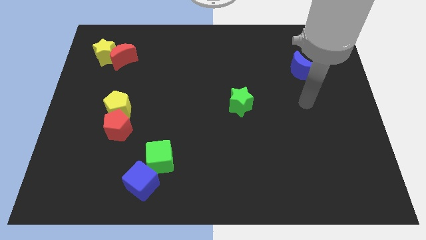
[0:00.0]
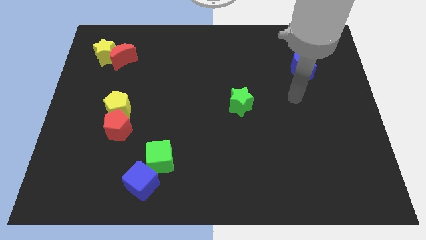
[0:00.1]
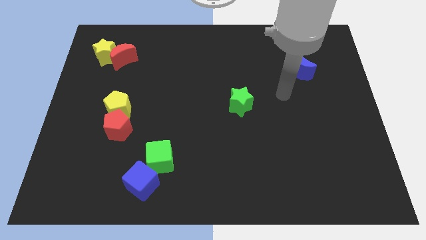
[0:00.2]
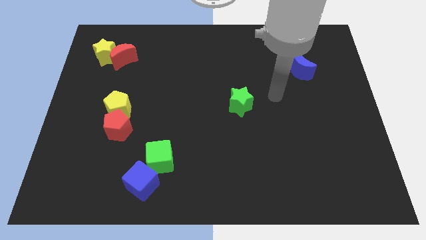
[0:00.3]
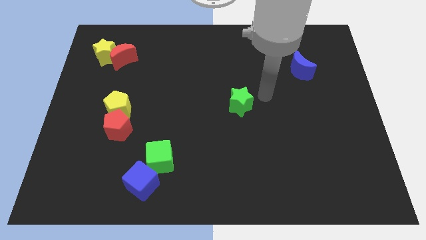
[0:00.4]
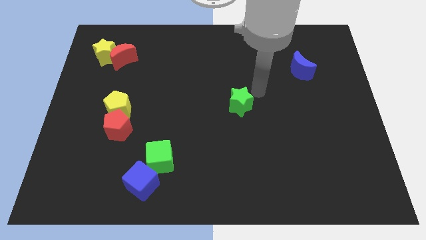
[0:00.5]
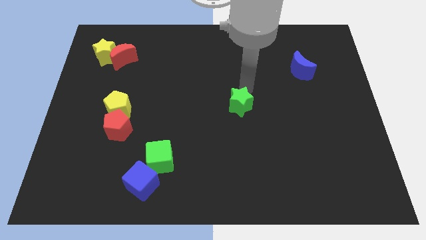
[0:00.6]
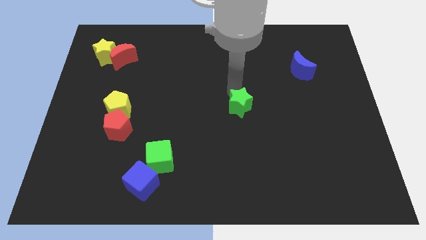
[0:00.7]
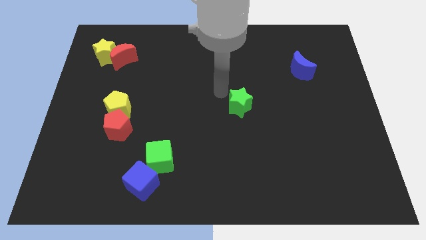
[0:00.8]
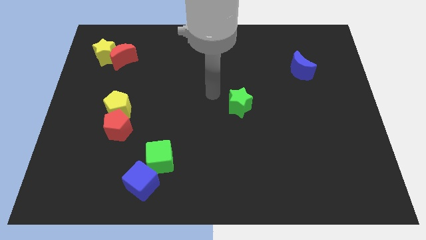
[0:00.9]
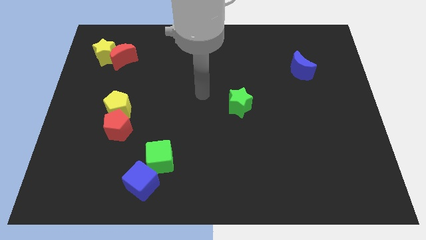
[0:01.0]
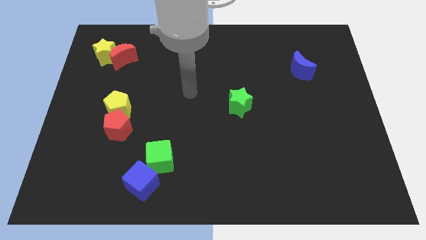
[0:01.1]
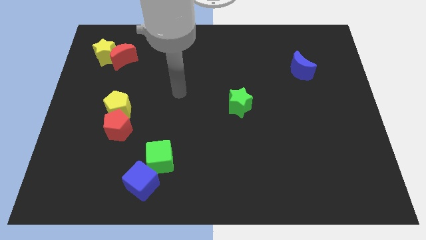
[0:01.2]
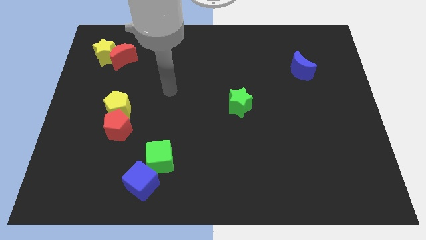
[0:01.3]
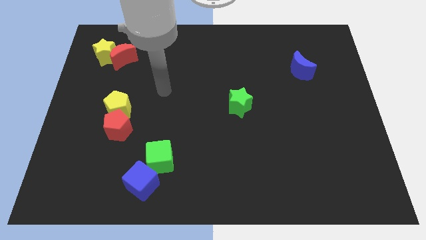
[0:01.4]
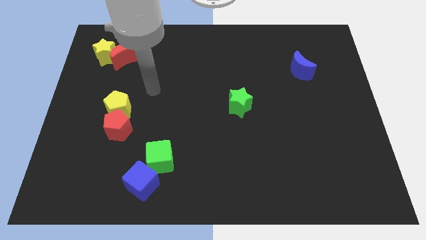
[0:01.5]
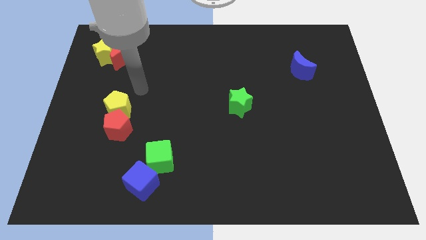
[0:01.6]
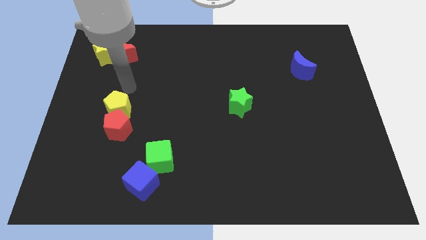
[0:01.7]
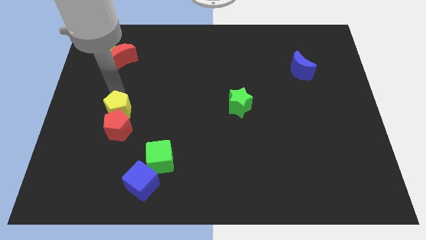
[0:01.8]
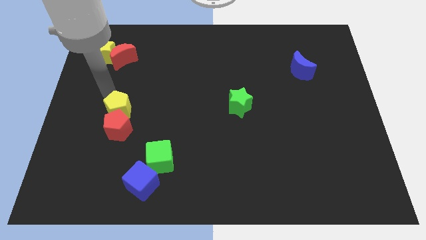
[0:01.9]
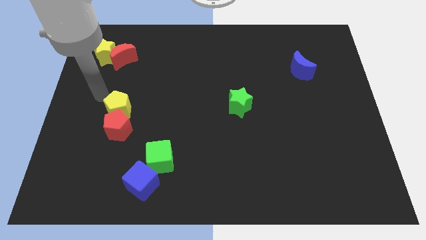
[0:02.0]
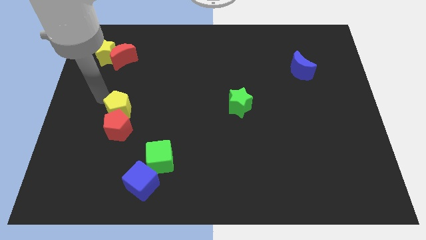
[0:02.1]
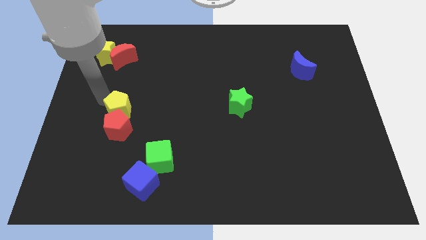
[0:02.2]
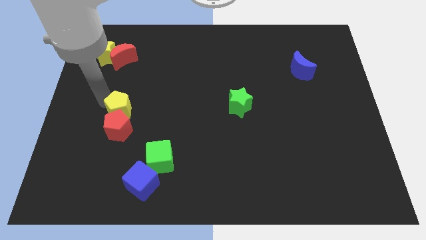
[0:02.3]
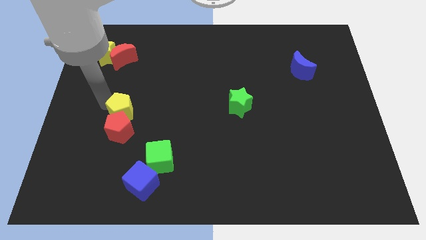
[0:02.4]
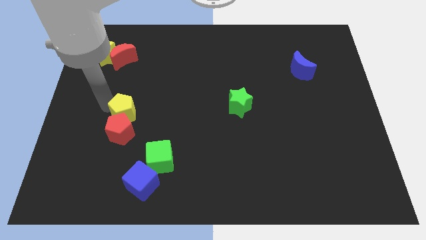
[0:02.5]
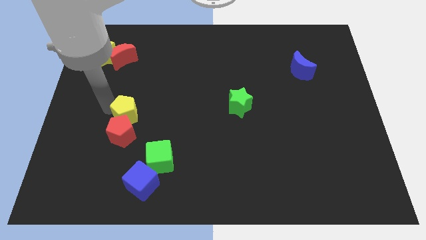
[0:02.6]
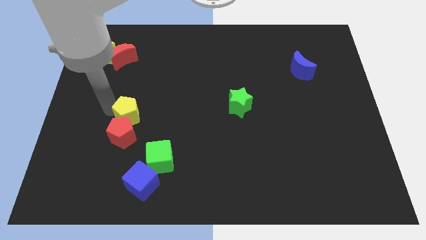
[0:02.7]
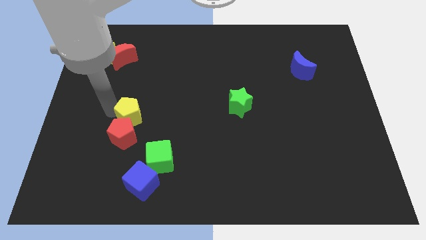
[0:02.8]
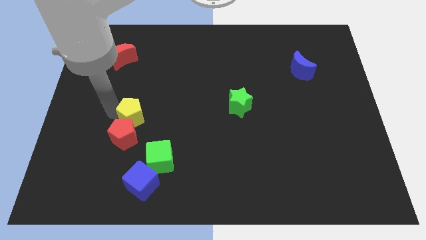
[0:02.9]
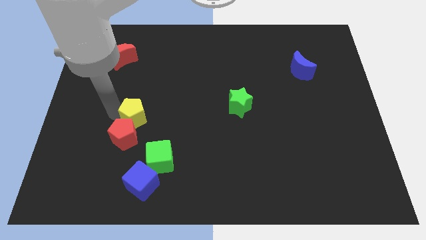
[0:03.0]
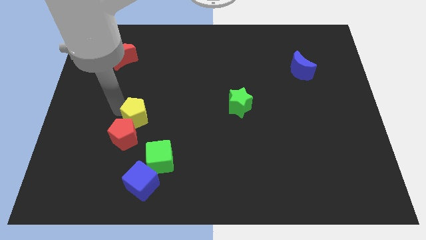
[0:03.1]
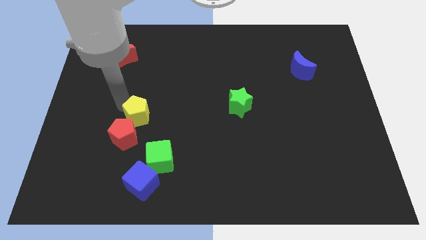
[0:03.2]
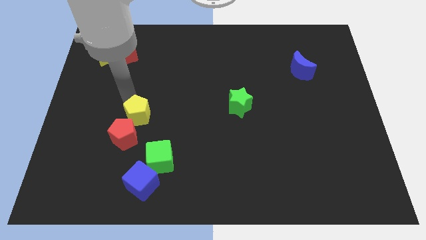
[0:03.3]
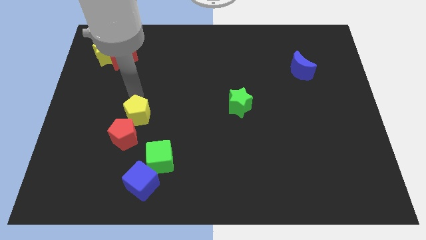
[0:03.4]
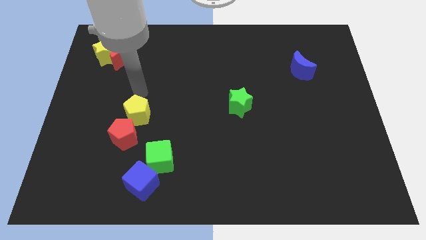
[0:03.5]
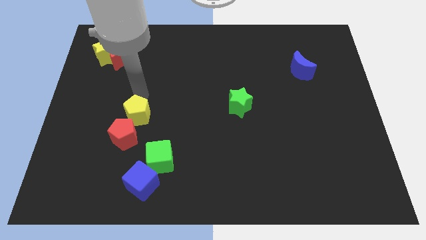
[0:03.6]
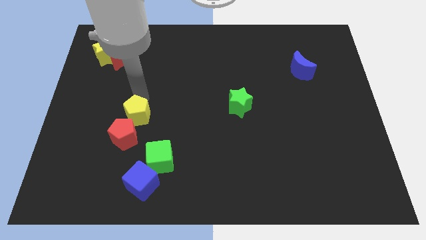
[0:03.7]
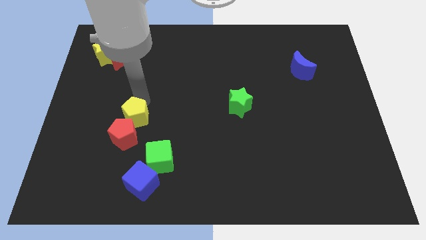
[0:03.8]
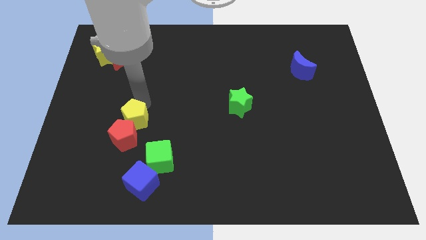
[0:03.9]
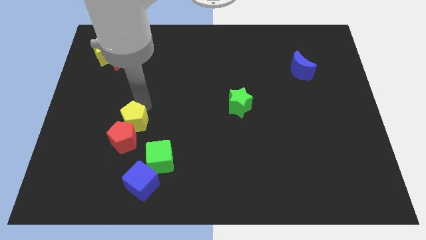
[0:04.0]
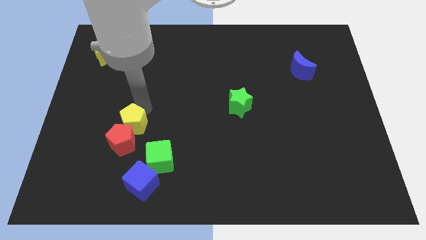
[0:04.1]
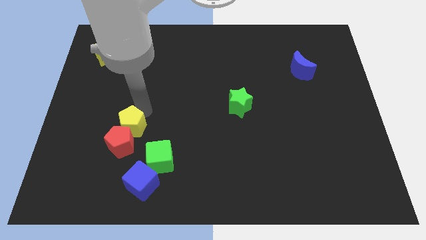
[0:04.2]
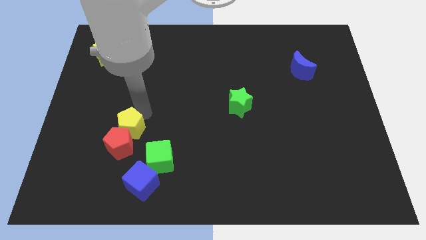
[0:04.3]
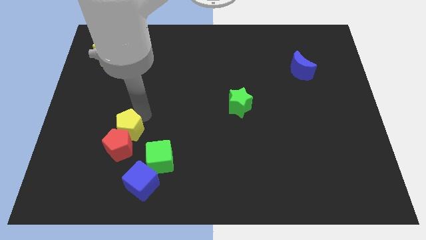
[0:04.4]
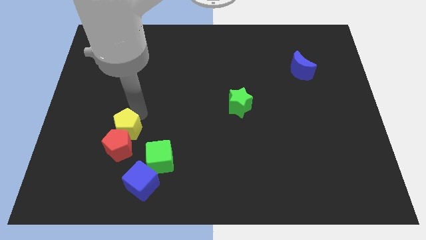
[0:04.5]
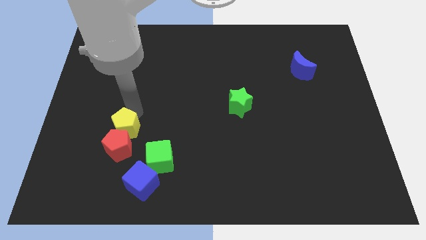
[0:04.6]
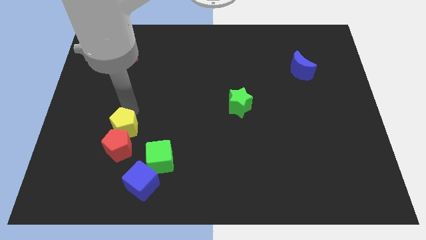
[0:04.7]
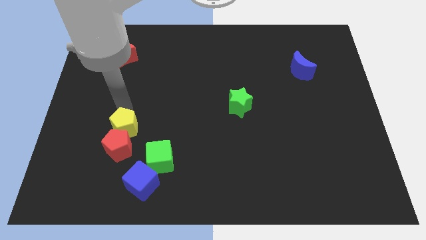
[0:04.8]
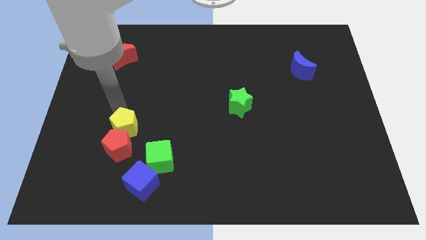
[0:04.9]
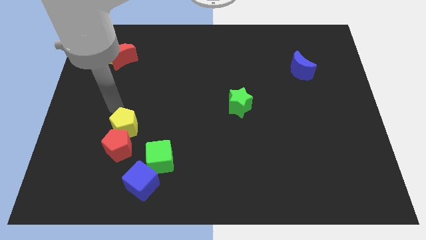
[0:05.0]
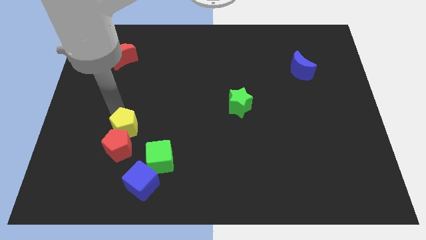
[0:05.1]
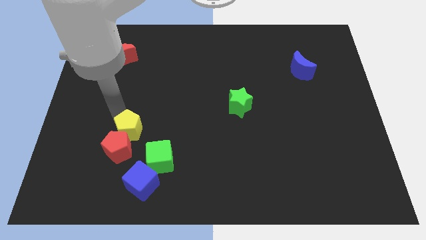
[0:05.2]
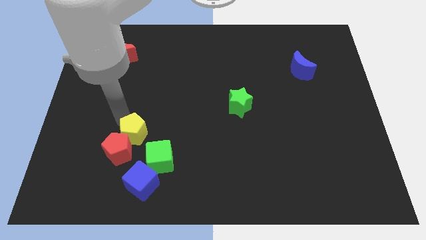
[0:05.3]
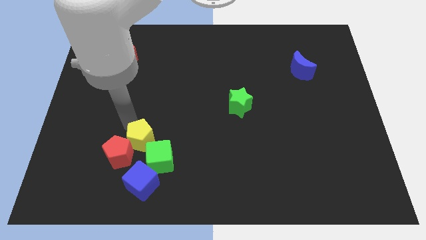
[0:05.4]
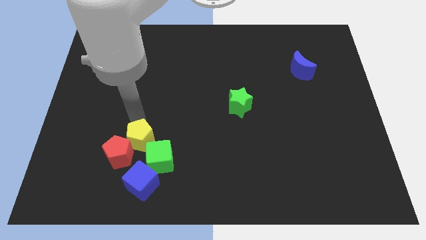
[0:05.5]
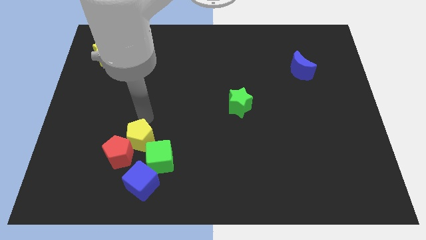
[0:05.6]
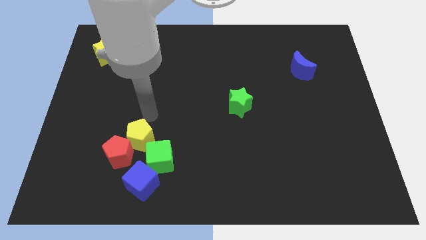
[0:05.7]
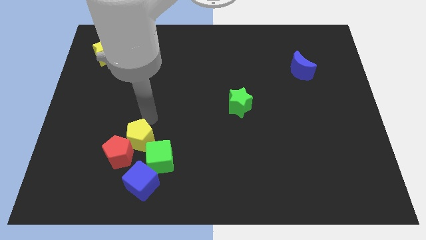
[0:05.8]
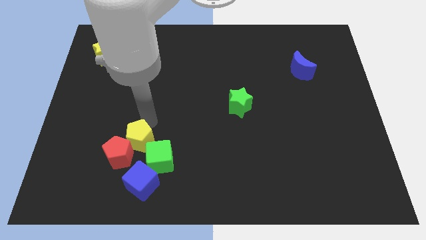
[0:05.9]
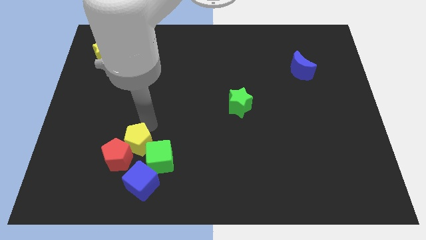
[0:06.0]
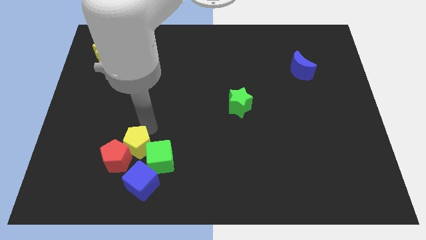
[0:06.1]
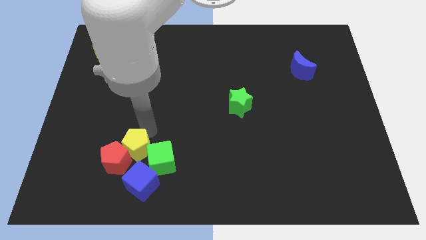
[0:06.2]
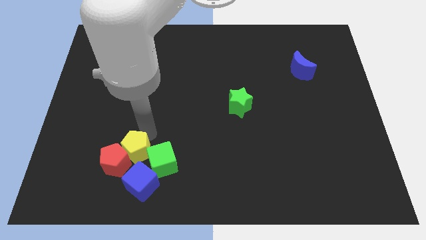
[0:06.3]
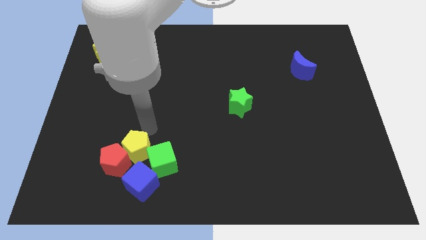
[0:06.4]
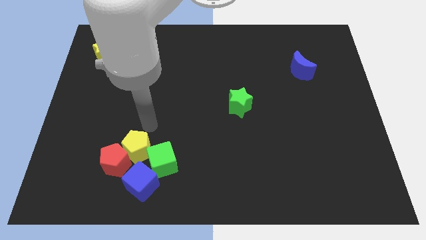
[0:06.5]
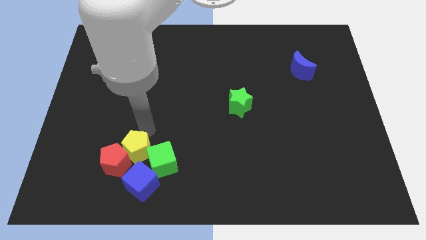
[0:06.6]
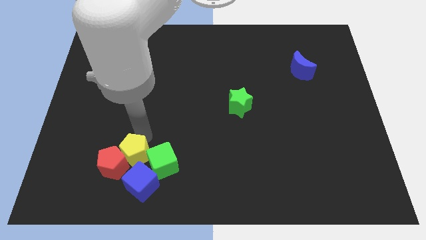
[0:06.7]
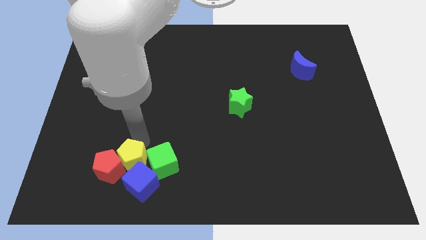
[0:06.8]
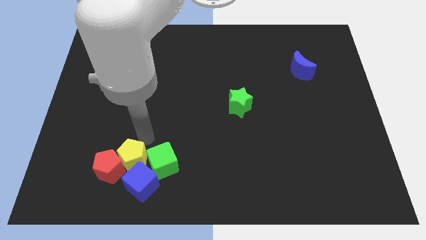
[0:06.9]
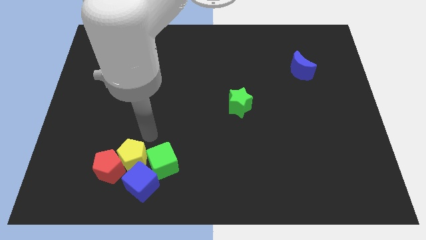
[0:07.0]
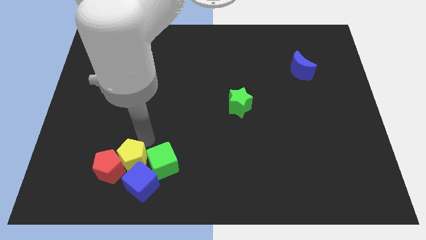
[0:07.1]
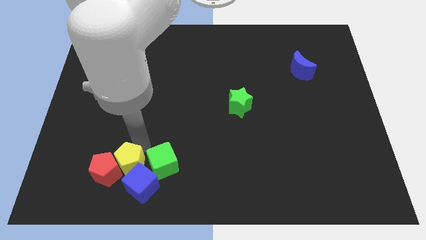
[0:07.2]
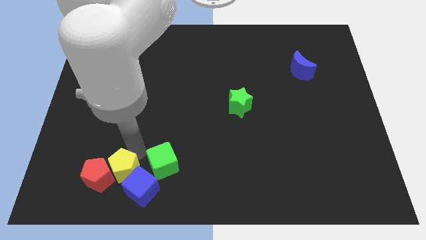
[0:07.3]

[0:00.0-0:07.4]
move the yellow pentagon diagonally down and to the left of the green cube
